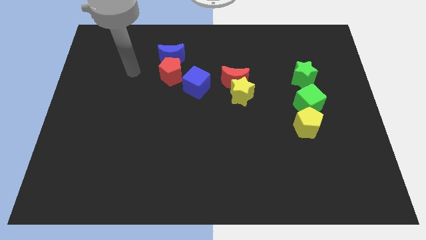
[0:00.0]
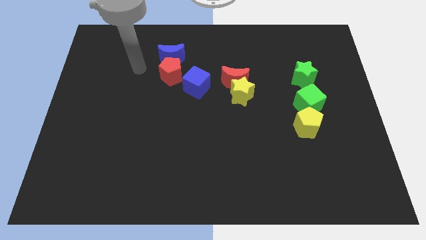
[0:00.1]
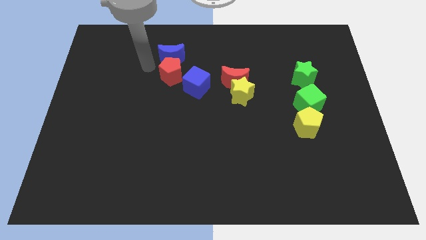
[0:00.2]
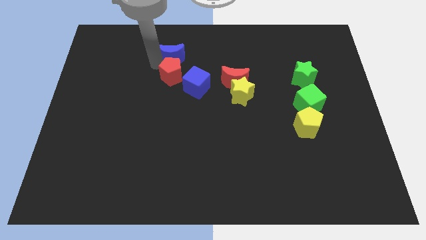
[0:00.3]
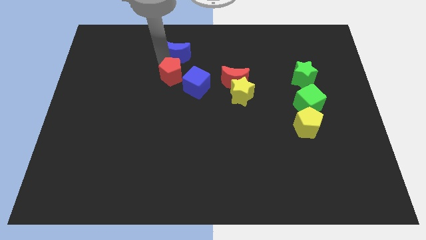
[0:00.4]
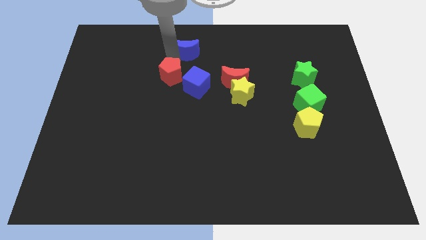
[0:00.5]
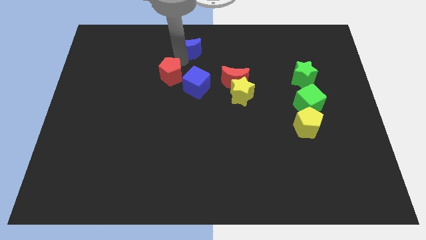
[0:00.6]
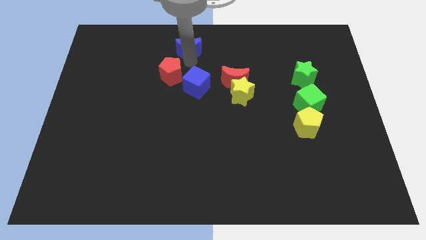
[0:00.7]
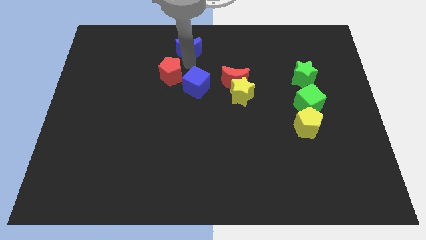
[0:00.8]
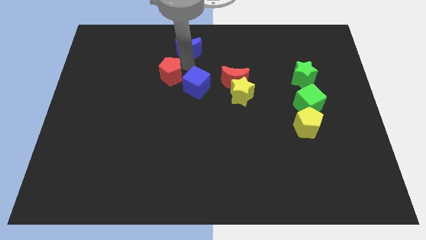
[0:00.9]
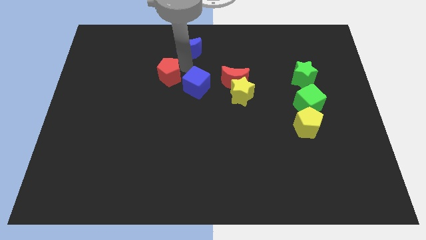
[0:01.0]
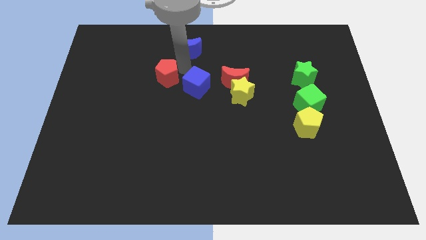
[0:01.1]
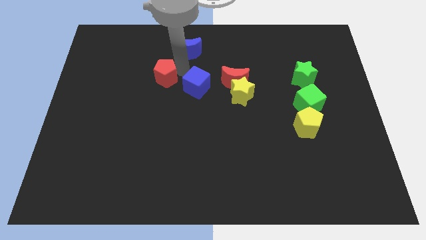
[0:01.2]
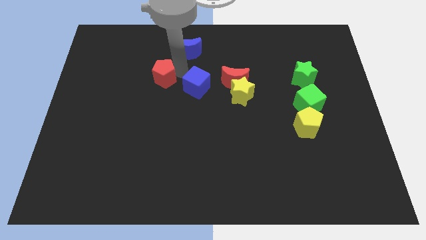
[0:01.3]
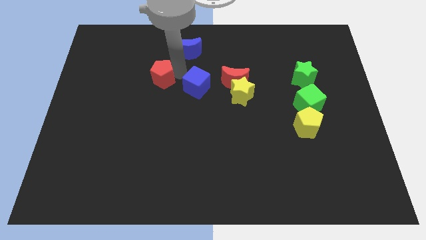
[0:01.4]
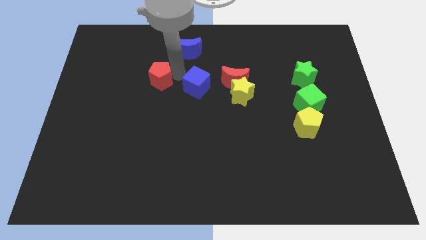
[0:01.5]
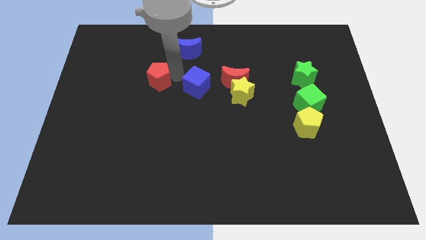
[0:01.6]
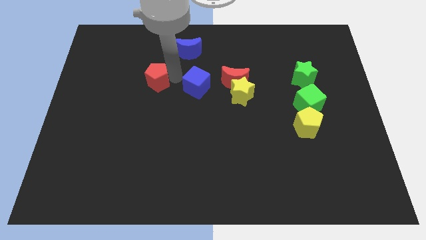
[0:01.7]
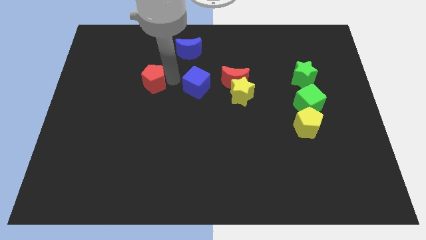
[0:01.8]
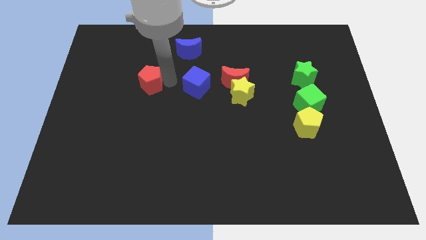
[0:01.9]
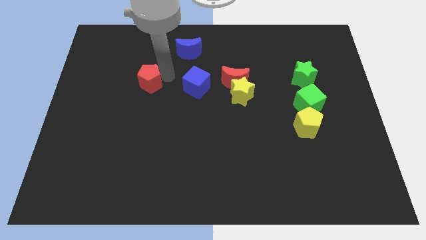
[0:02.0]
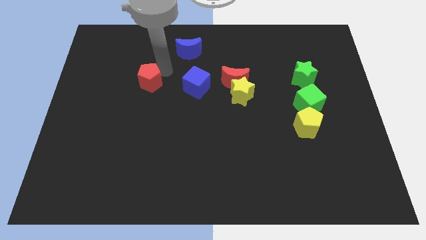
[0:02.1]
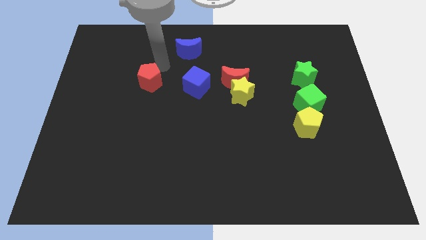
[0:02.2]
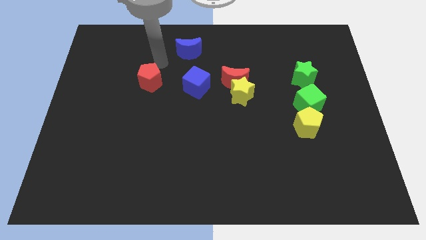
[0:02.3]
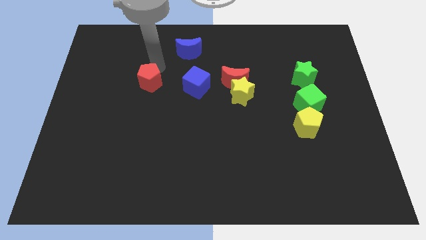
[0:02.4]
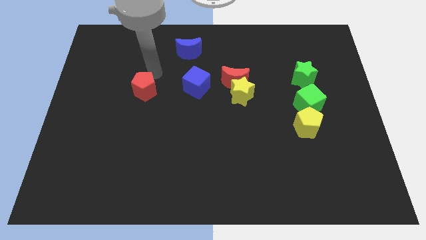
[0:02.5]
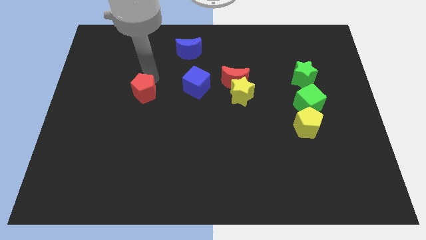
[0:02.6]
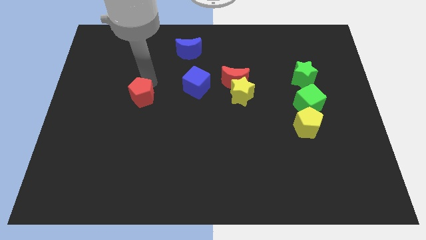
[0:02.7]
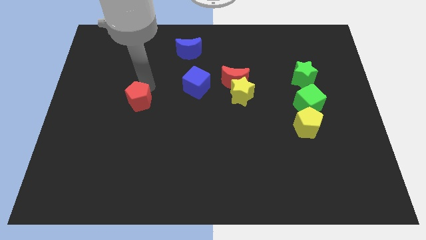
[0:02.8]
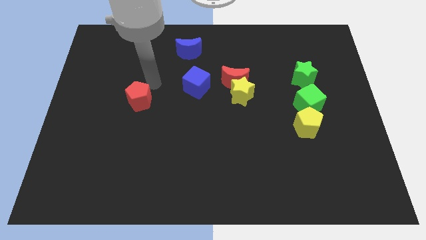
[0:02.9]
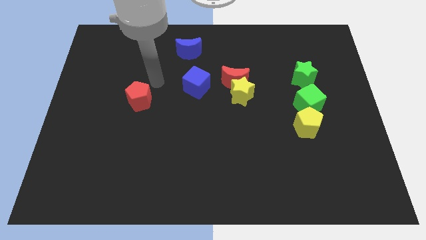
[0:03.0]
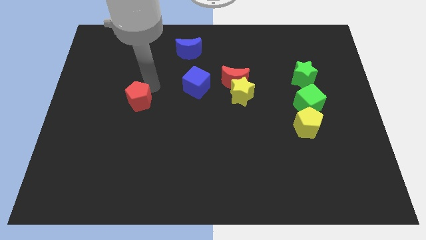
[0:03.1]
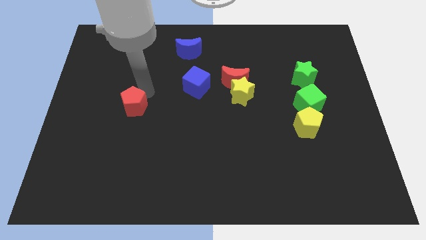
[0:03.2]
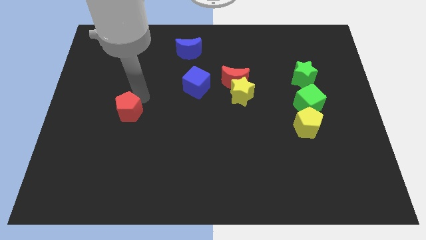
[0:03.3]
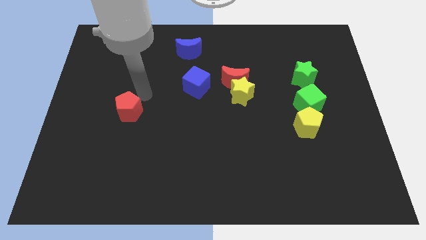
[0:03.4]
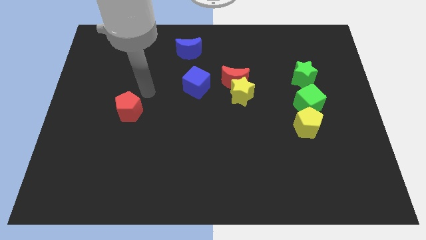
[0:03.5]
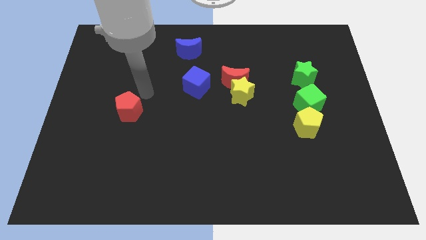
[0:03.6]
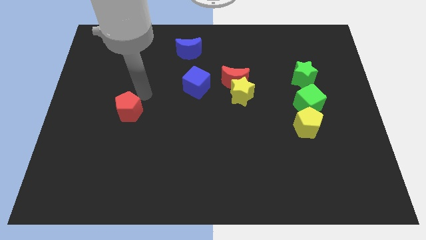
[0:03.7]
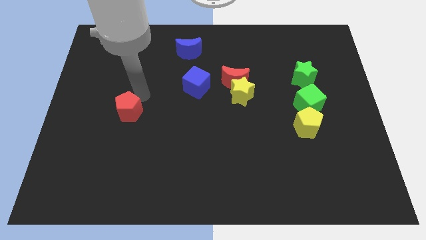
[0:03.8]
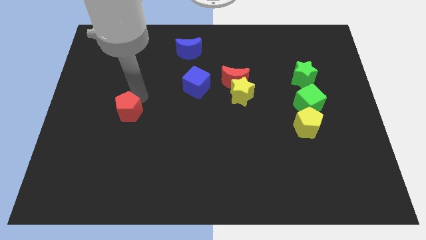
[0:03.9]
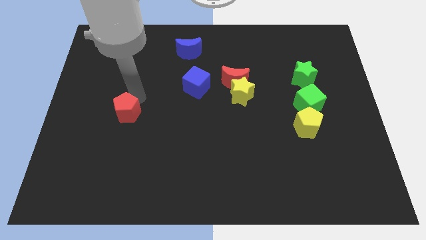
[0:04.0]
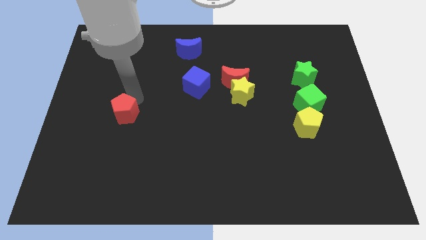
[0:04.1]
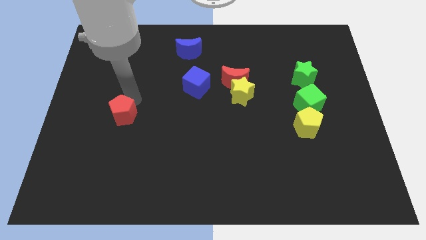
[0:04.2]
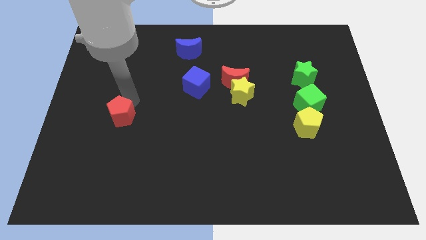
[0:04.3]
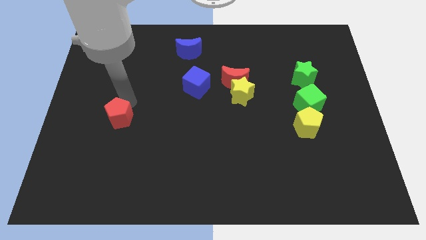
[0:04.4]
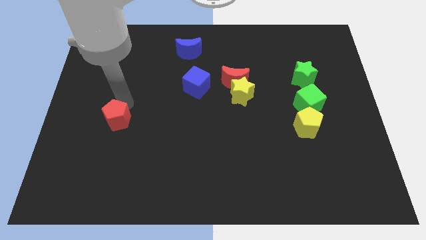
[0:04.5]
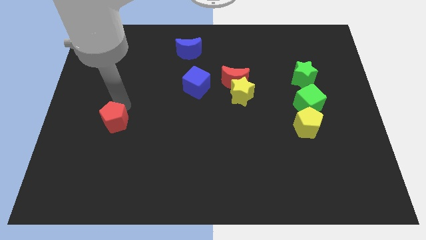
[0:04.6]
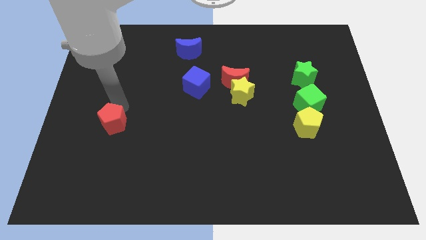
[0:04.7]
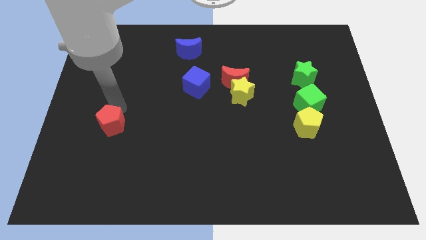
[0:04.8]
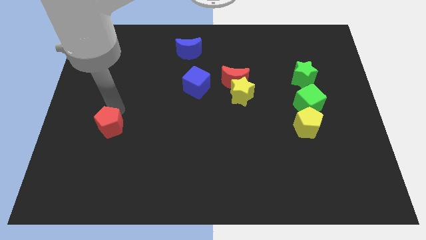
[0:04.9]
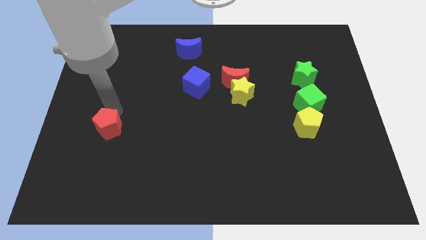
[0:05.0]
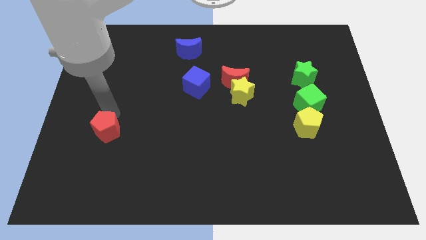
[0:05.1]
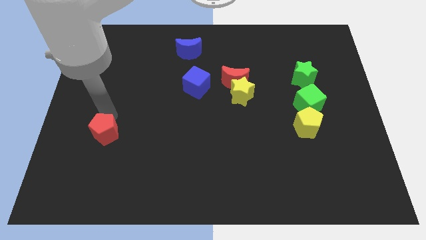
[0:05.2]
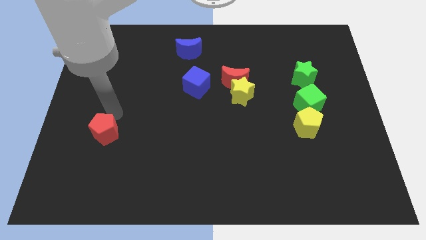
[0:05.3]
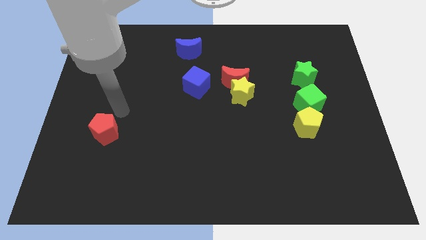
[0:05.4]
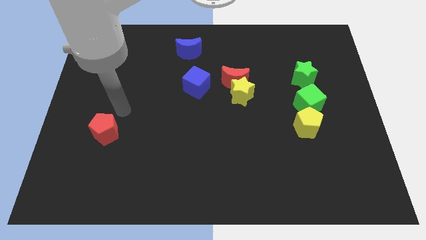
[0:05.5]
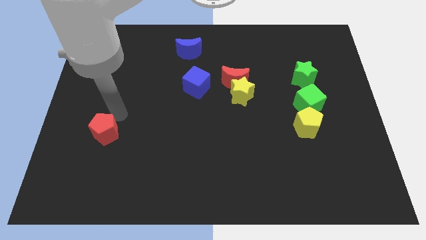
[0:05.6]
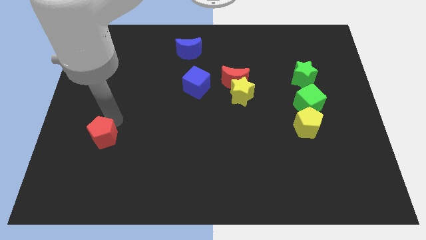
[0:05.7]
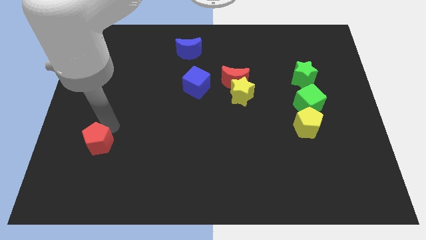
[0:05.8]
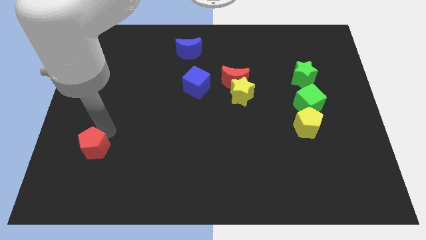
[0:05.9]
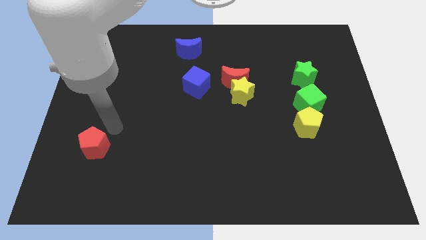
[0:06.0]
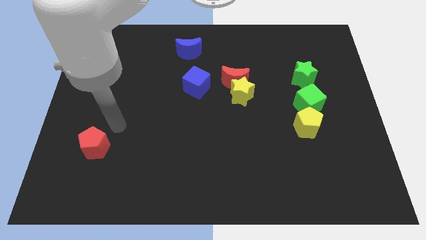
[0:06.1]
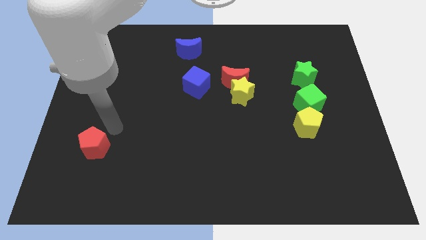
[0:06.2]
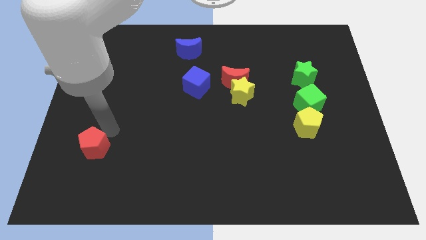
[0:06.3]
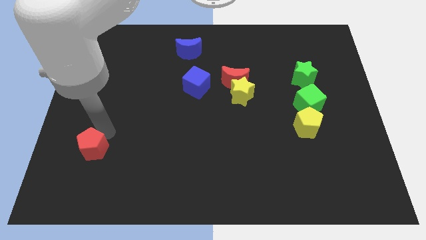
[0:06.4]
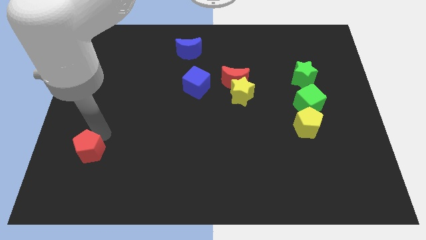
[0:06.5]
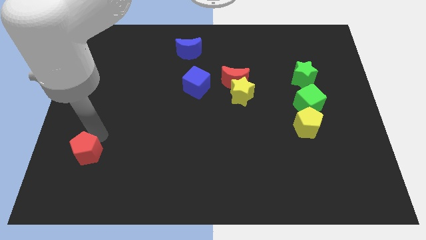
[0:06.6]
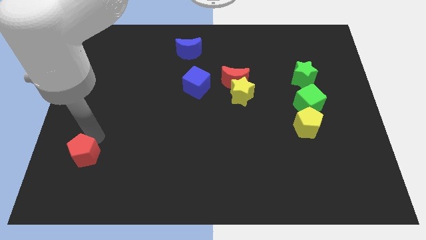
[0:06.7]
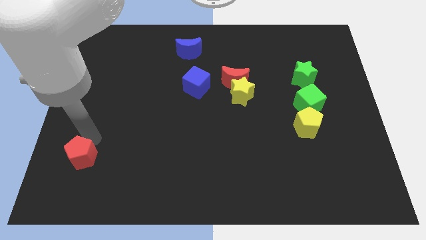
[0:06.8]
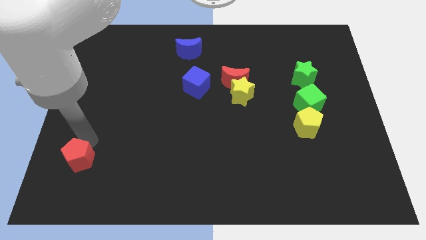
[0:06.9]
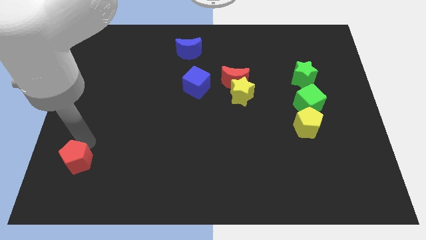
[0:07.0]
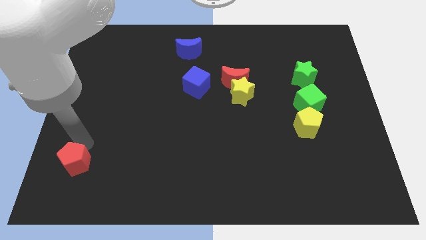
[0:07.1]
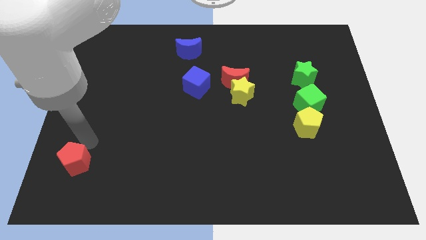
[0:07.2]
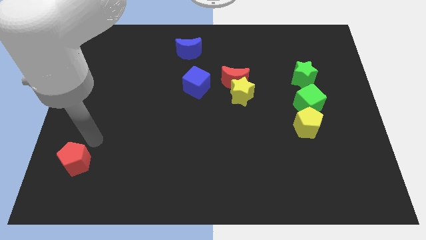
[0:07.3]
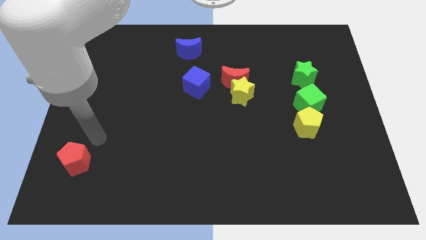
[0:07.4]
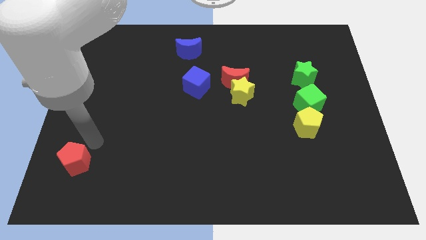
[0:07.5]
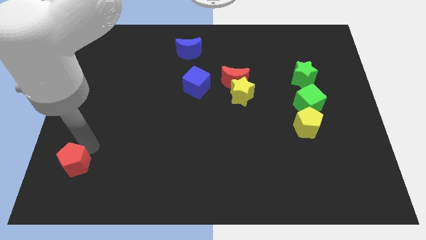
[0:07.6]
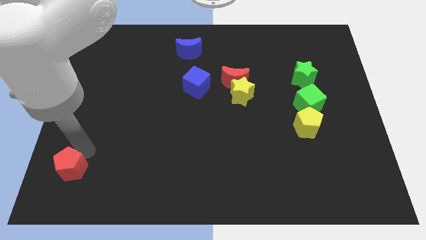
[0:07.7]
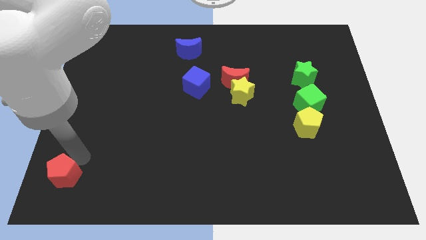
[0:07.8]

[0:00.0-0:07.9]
move the red pentagon to the bottom left of the board
